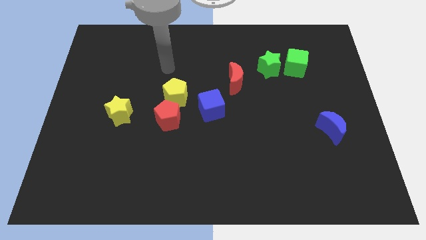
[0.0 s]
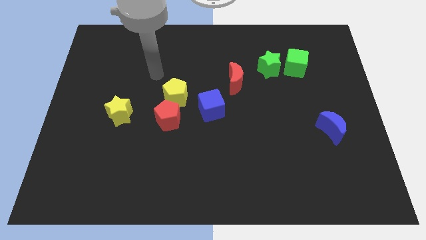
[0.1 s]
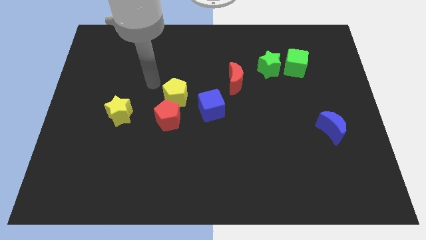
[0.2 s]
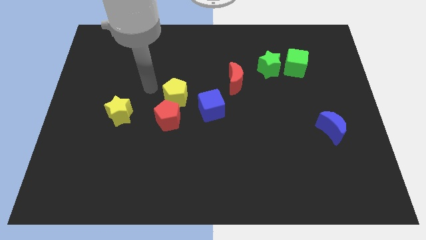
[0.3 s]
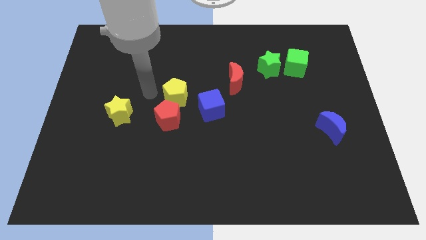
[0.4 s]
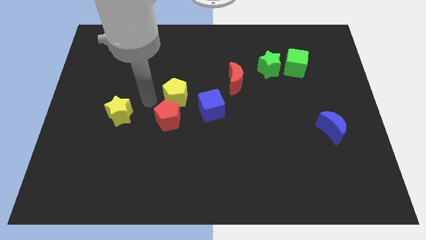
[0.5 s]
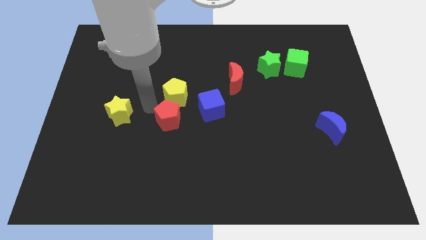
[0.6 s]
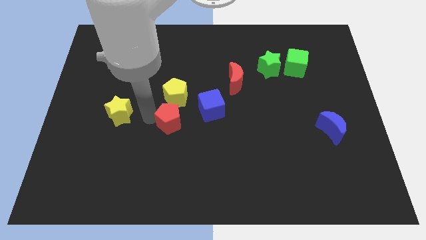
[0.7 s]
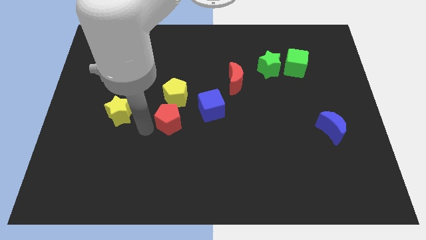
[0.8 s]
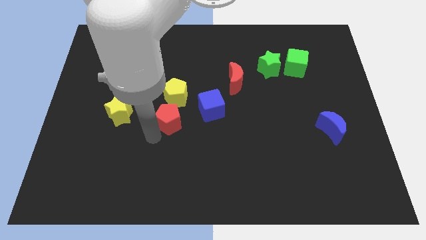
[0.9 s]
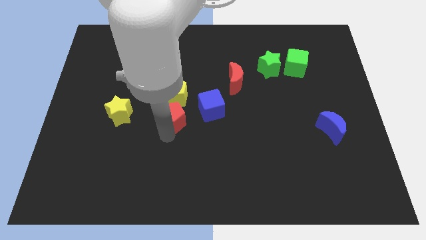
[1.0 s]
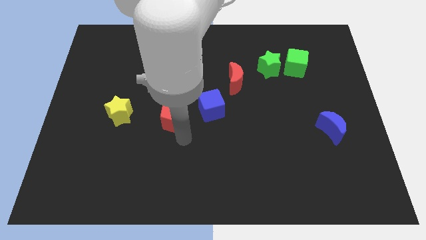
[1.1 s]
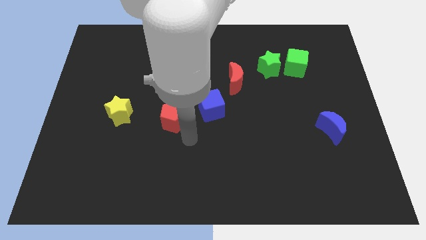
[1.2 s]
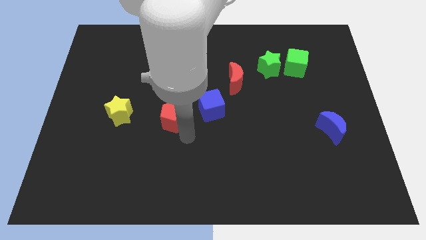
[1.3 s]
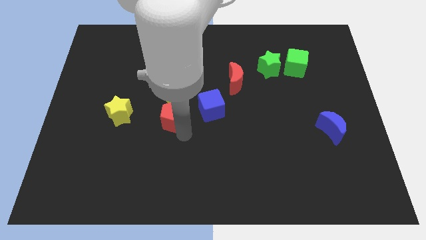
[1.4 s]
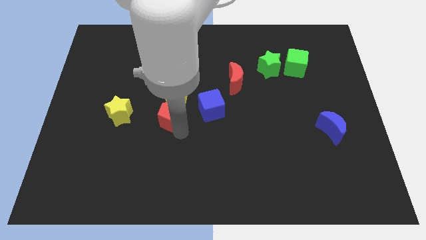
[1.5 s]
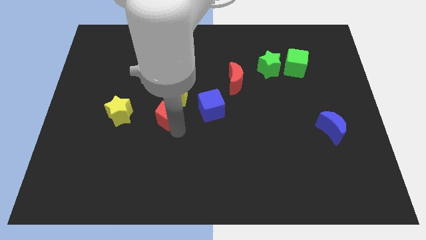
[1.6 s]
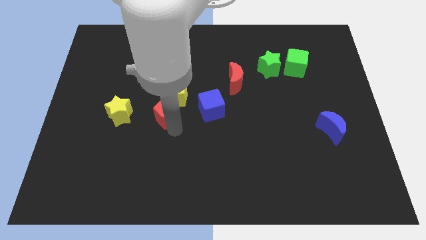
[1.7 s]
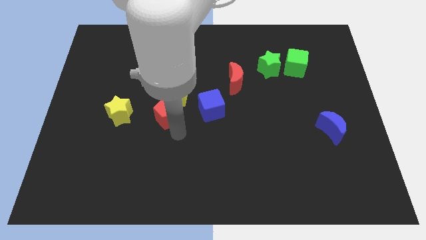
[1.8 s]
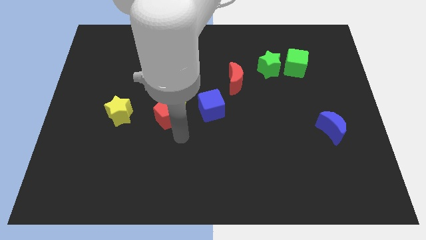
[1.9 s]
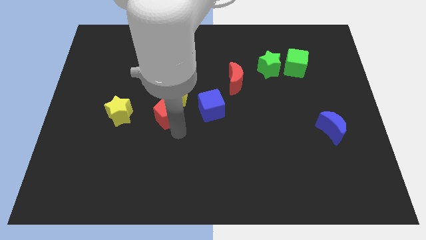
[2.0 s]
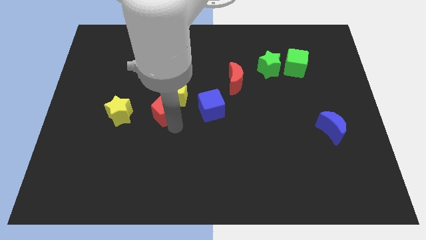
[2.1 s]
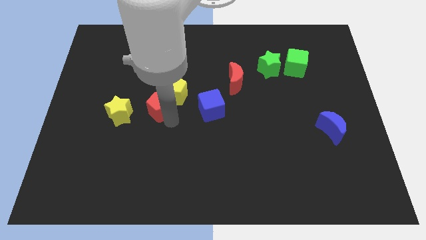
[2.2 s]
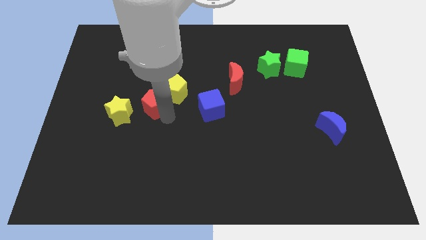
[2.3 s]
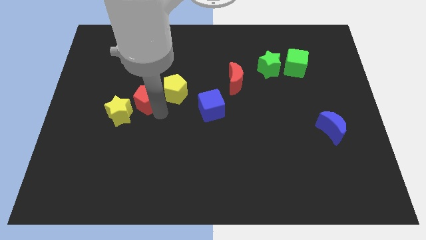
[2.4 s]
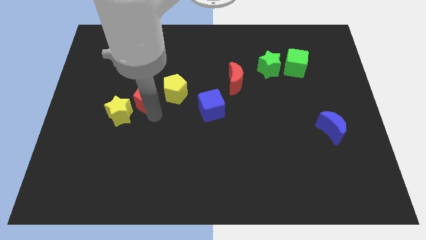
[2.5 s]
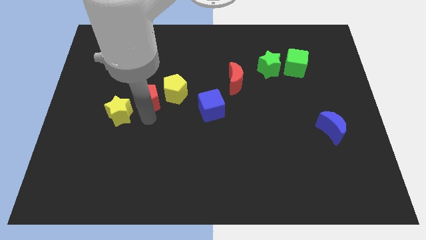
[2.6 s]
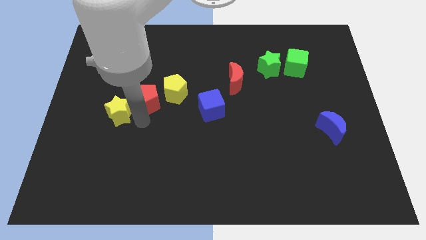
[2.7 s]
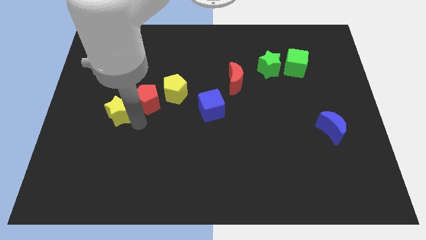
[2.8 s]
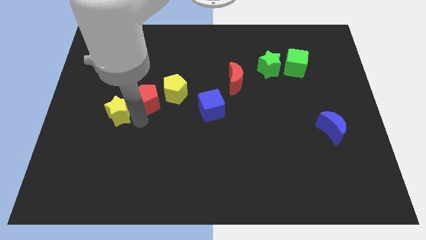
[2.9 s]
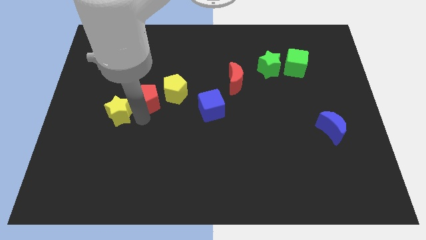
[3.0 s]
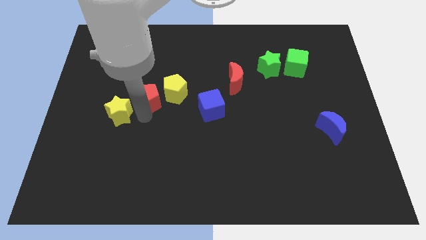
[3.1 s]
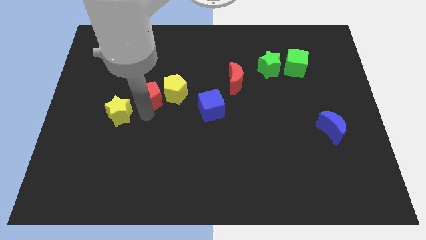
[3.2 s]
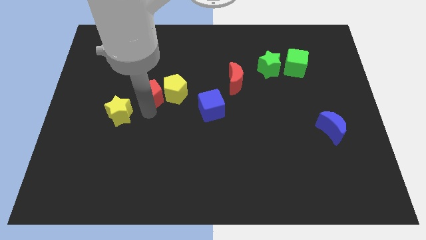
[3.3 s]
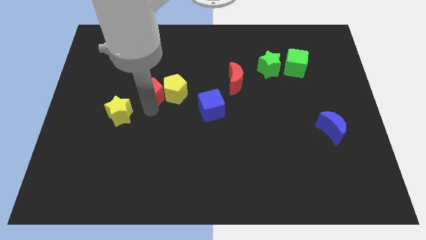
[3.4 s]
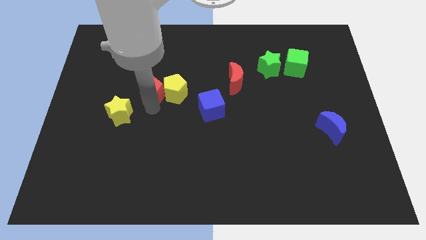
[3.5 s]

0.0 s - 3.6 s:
slide the red pentagon slightly up

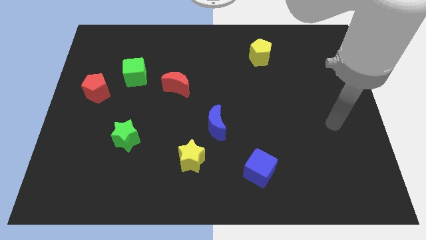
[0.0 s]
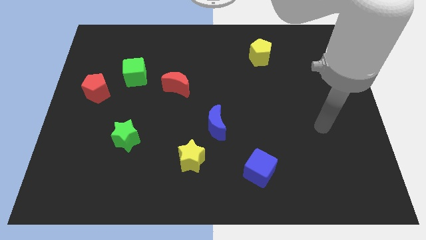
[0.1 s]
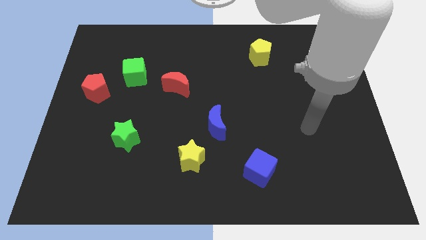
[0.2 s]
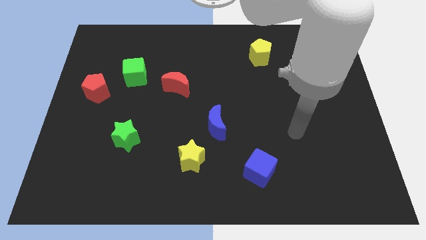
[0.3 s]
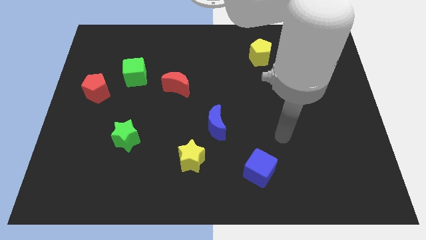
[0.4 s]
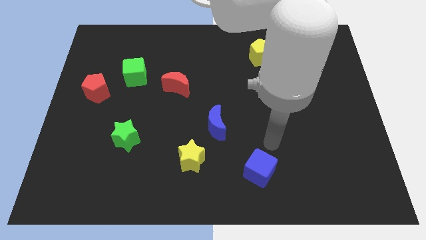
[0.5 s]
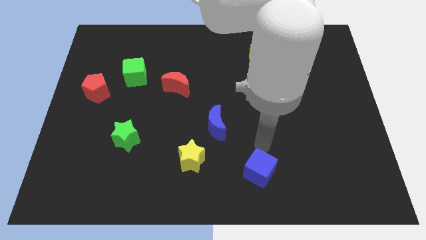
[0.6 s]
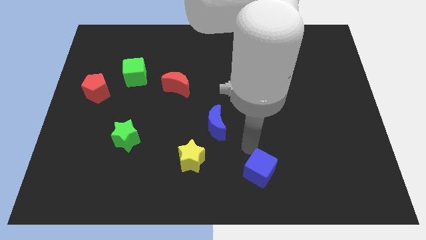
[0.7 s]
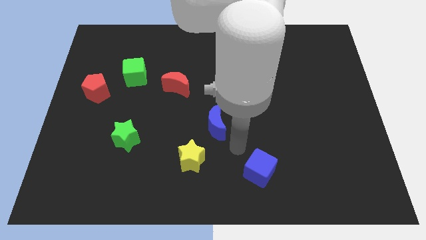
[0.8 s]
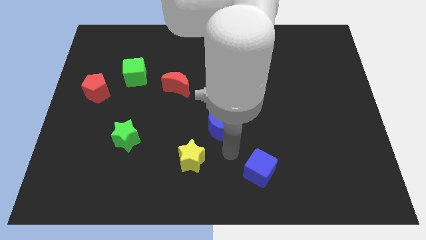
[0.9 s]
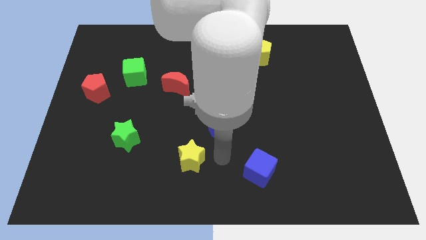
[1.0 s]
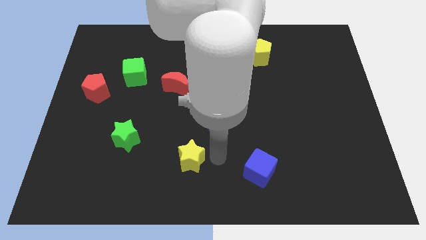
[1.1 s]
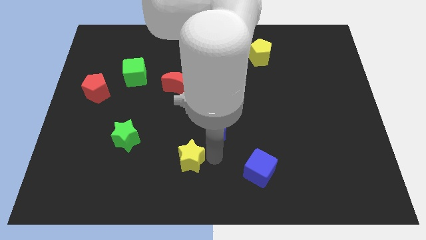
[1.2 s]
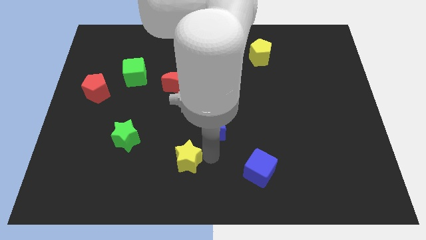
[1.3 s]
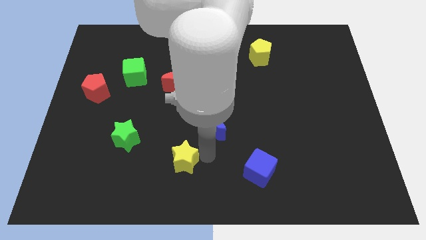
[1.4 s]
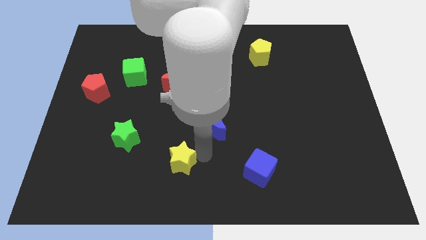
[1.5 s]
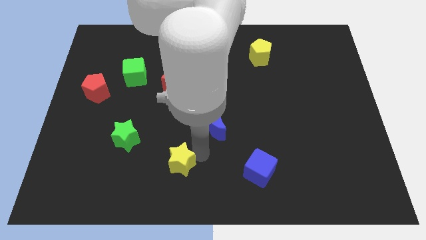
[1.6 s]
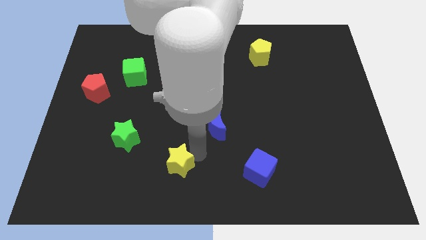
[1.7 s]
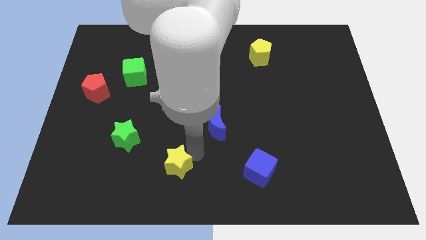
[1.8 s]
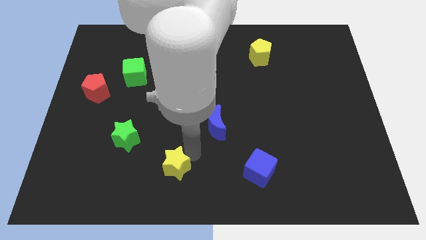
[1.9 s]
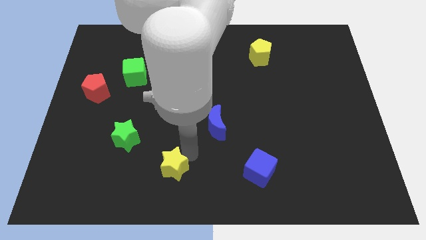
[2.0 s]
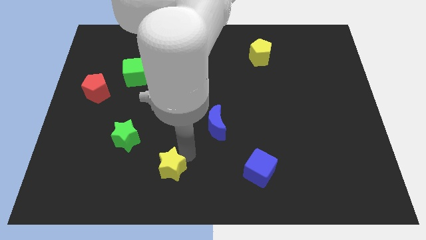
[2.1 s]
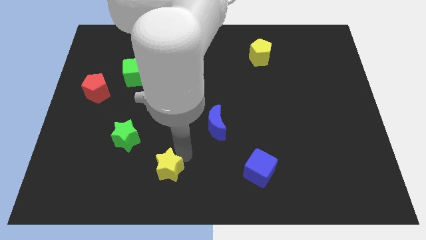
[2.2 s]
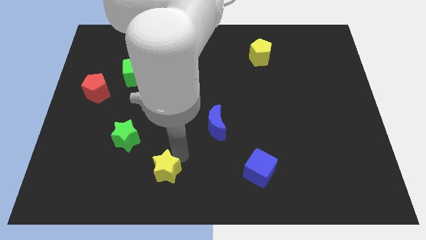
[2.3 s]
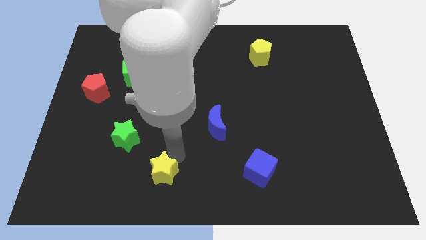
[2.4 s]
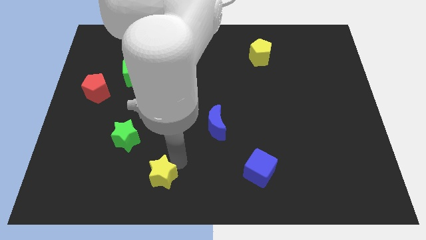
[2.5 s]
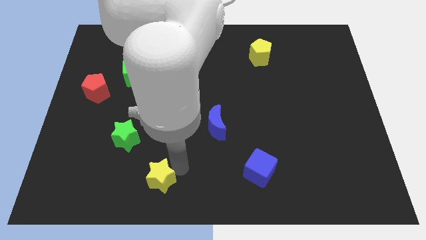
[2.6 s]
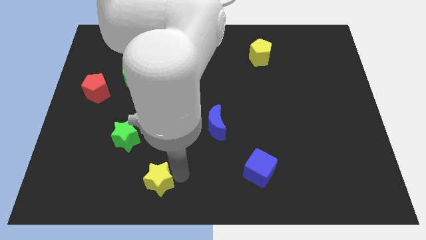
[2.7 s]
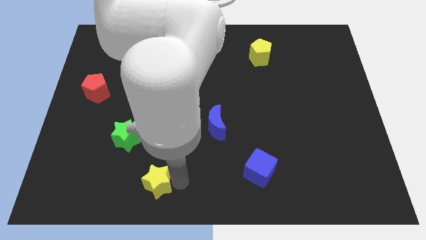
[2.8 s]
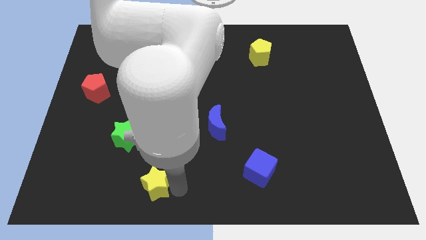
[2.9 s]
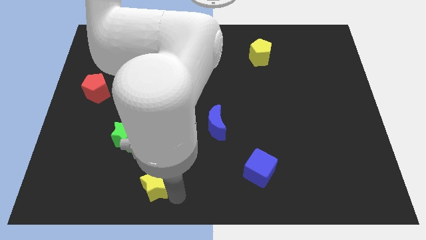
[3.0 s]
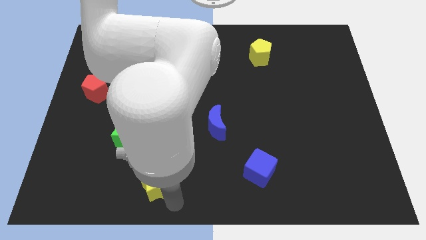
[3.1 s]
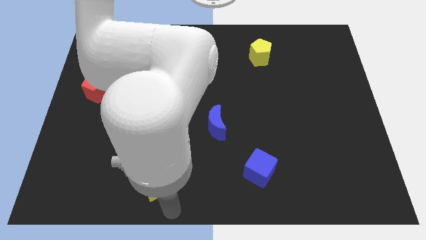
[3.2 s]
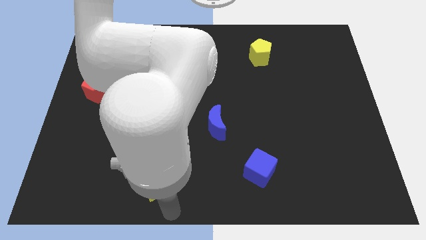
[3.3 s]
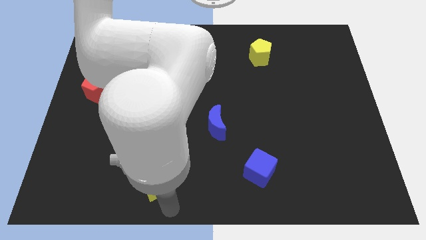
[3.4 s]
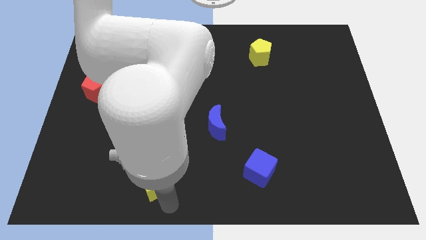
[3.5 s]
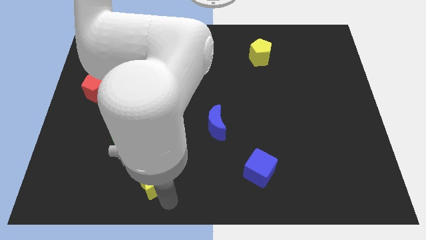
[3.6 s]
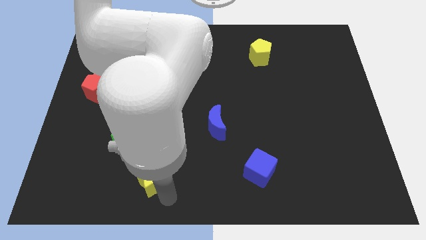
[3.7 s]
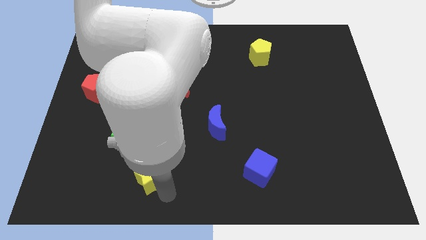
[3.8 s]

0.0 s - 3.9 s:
slightly push the yellow star left

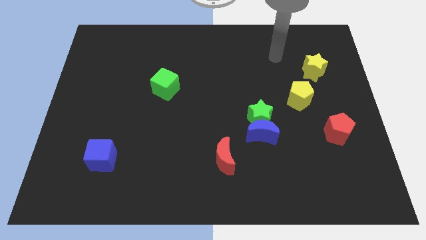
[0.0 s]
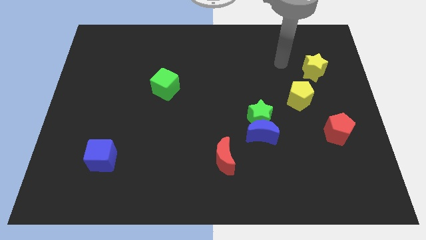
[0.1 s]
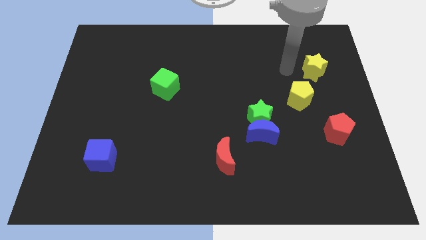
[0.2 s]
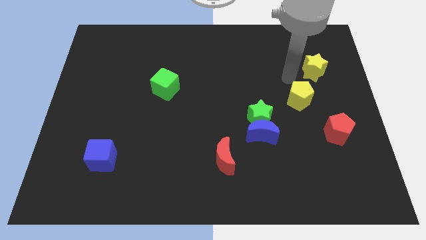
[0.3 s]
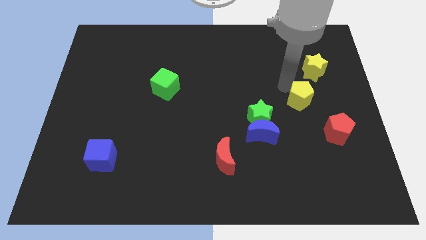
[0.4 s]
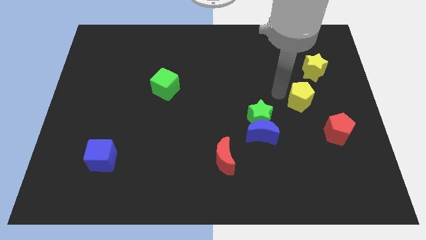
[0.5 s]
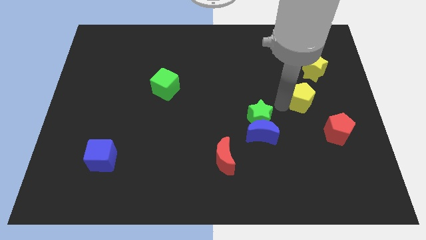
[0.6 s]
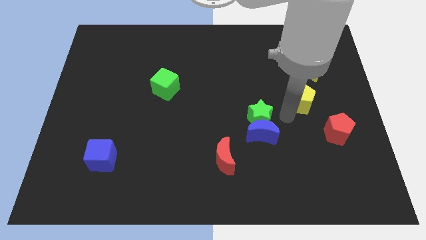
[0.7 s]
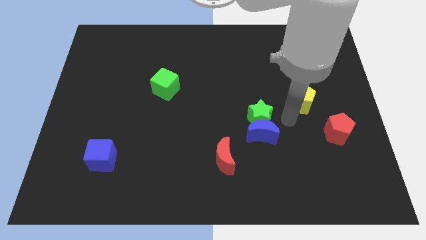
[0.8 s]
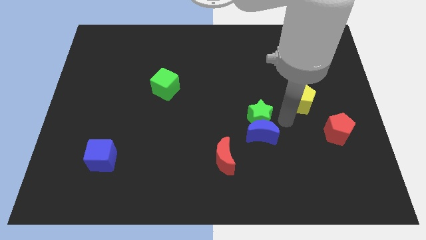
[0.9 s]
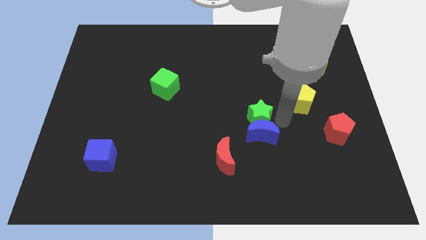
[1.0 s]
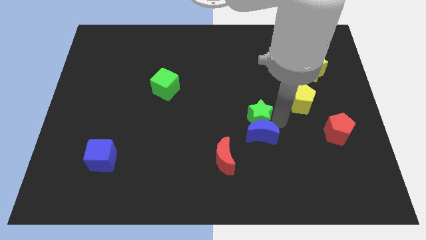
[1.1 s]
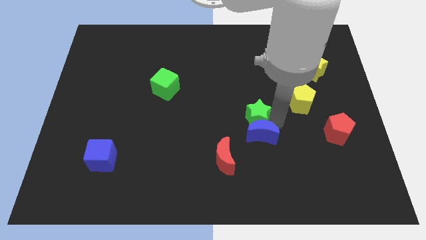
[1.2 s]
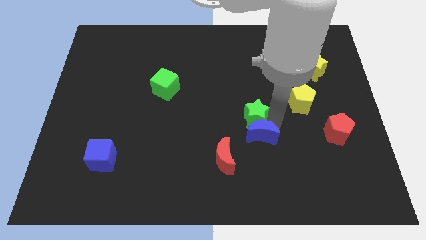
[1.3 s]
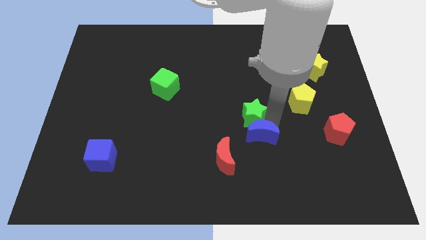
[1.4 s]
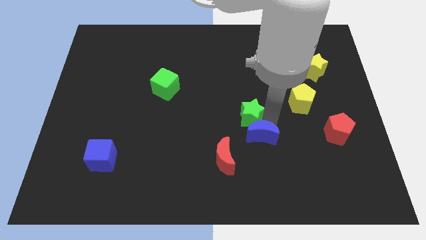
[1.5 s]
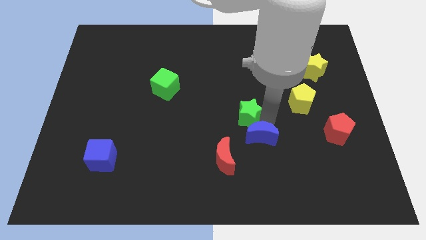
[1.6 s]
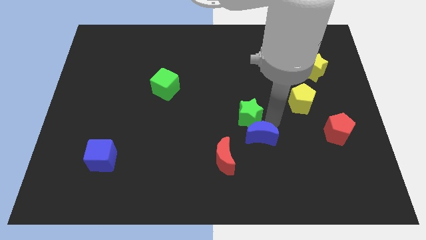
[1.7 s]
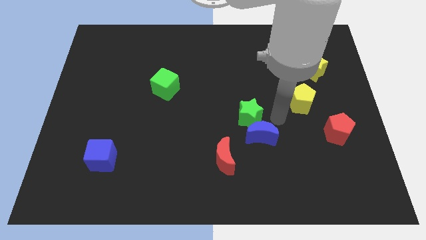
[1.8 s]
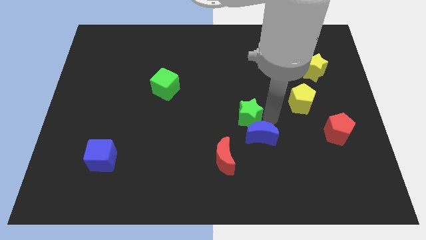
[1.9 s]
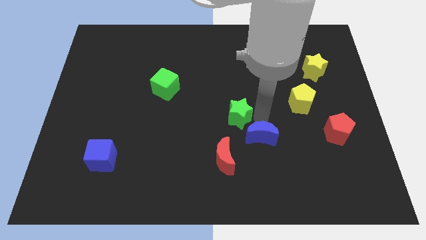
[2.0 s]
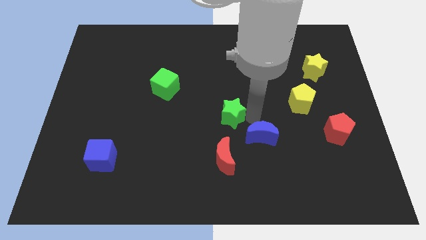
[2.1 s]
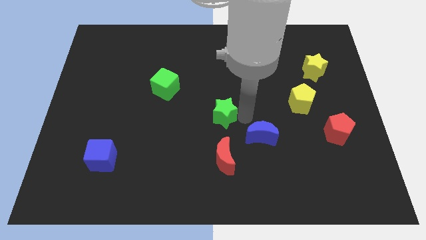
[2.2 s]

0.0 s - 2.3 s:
slide the green star to the left slightly
